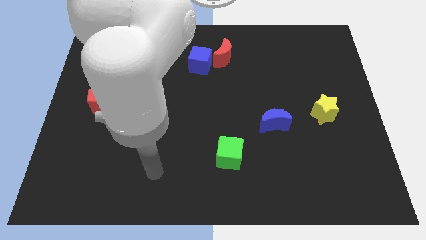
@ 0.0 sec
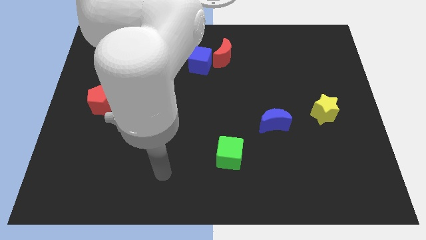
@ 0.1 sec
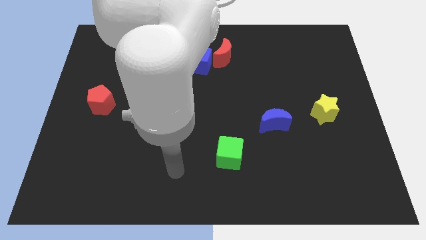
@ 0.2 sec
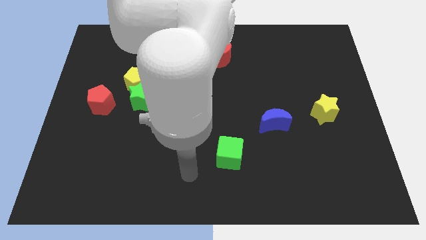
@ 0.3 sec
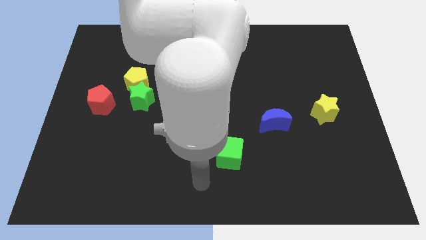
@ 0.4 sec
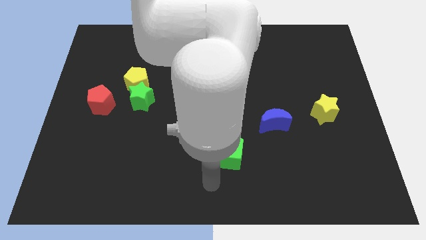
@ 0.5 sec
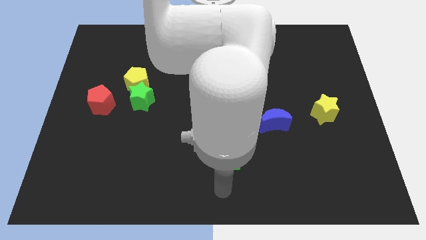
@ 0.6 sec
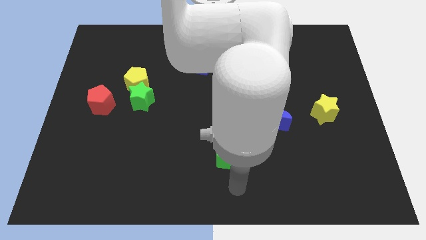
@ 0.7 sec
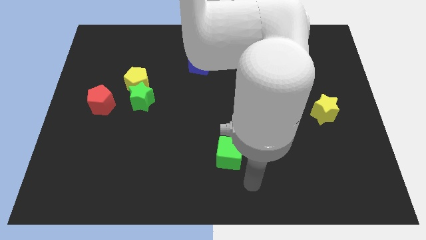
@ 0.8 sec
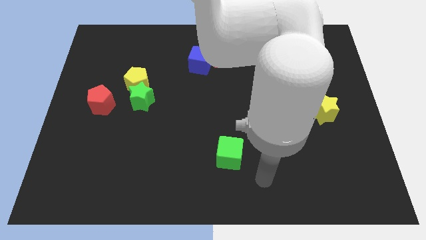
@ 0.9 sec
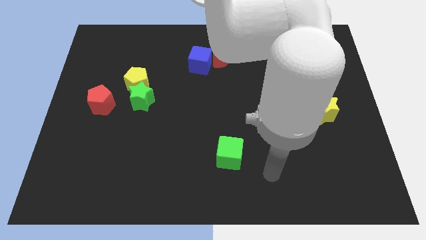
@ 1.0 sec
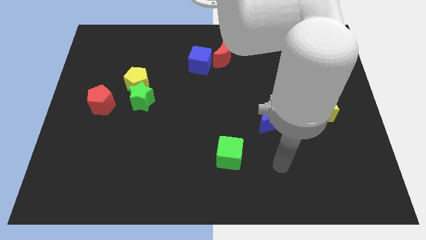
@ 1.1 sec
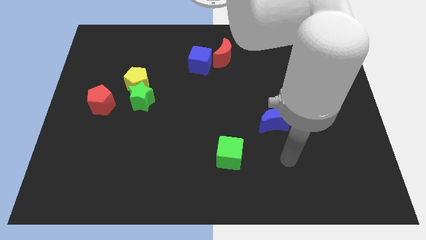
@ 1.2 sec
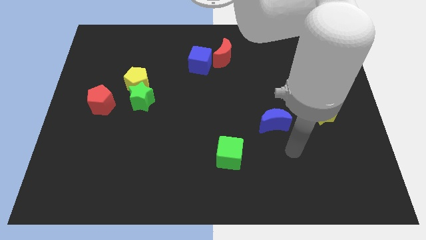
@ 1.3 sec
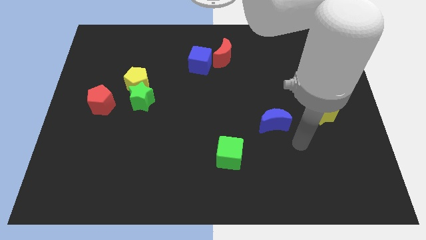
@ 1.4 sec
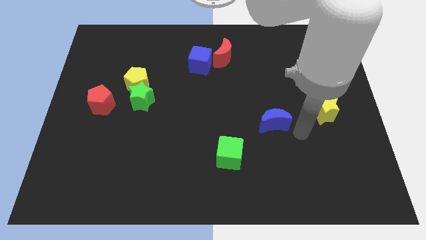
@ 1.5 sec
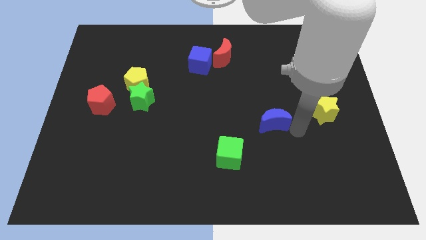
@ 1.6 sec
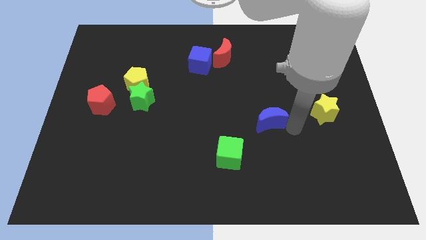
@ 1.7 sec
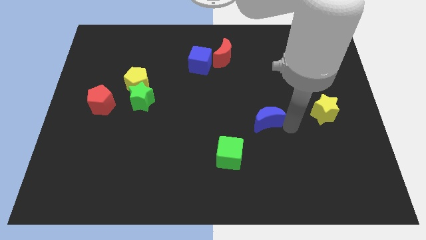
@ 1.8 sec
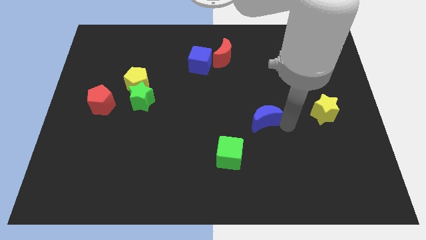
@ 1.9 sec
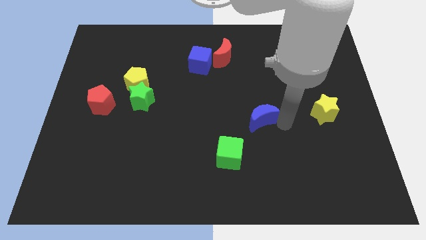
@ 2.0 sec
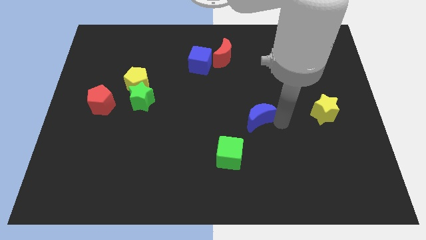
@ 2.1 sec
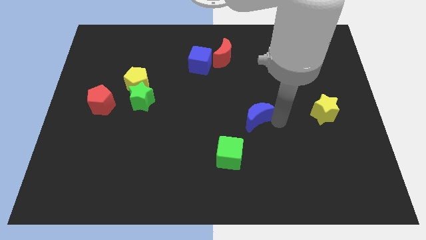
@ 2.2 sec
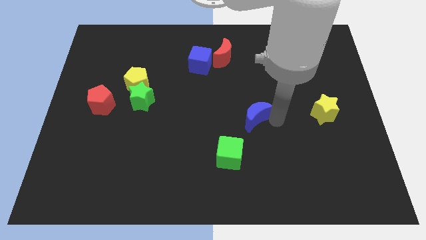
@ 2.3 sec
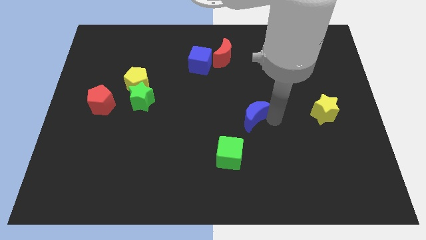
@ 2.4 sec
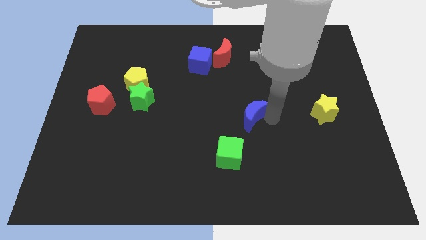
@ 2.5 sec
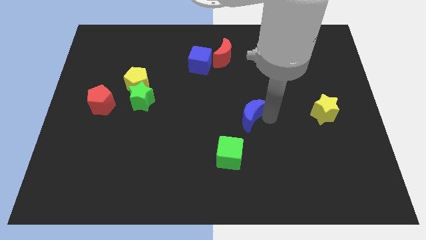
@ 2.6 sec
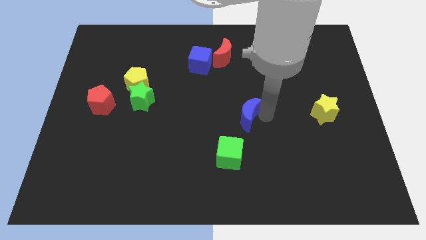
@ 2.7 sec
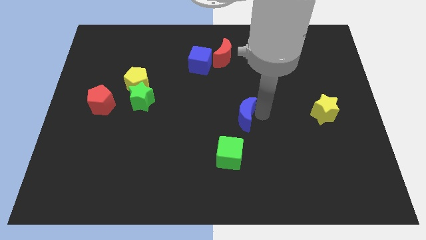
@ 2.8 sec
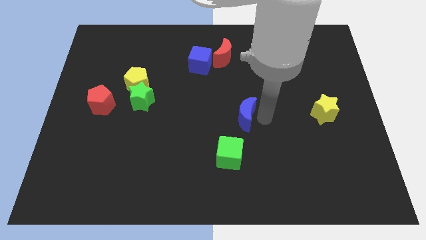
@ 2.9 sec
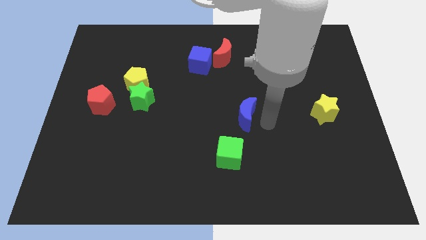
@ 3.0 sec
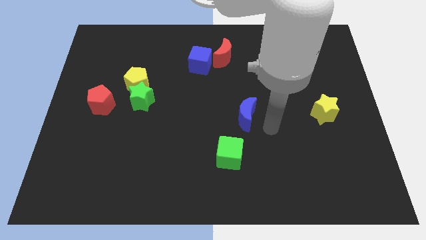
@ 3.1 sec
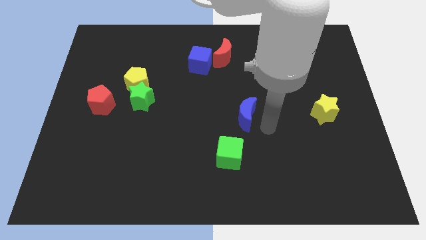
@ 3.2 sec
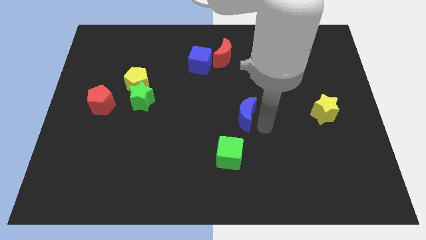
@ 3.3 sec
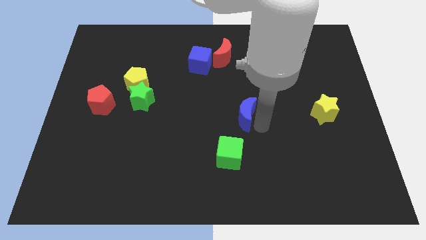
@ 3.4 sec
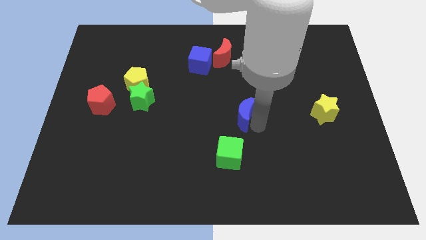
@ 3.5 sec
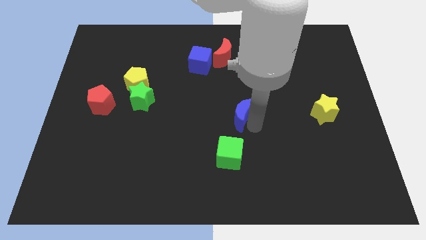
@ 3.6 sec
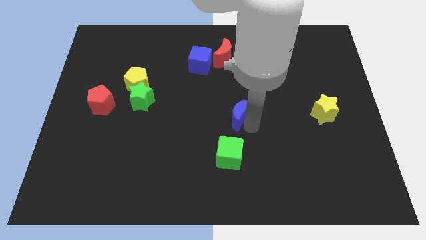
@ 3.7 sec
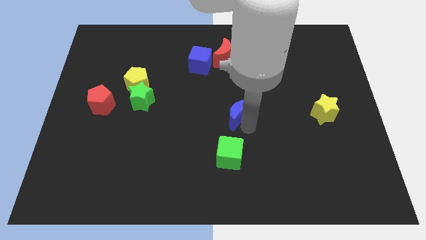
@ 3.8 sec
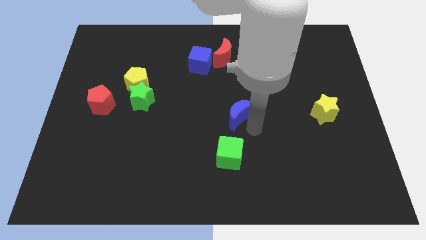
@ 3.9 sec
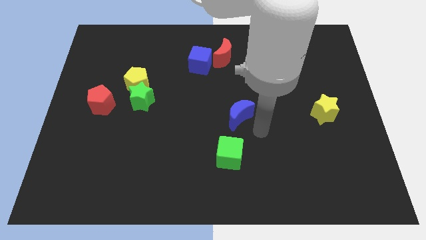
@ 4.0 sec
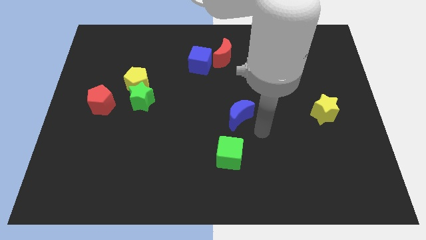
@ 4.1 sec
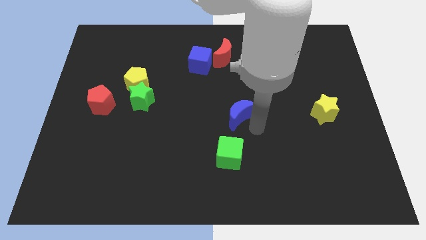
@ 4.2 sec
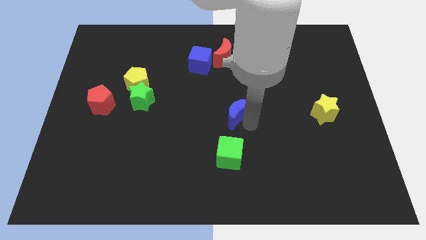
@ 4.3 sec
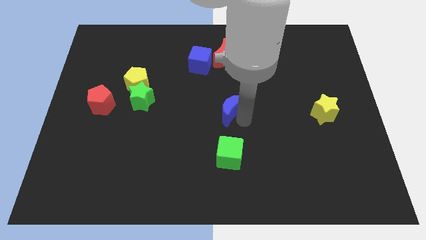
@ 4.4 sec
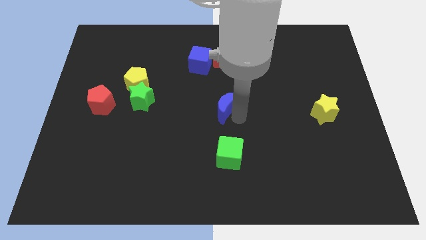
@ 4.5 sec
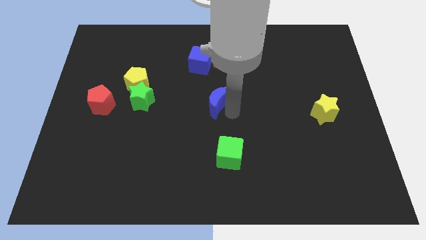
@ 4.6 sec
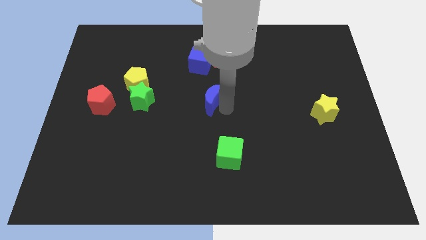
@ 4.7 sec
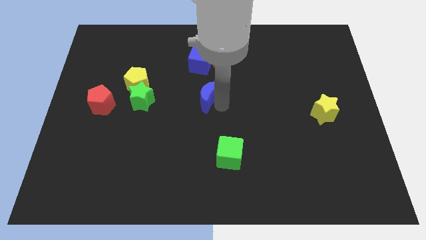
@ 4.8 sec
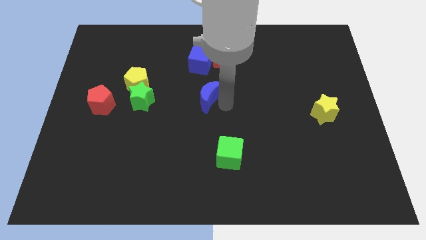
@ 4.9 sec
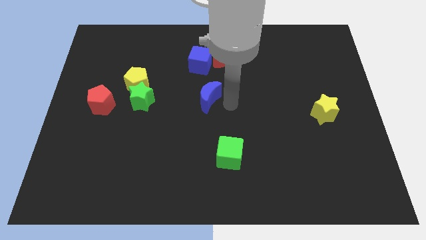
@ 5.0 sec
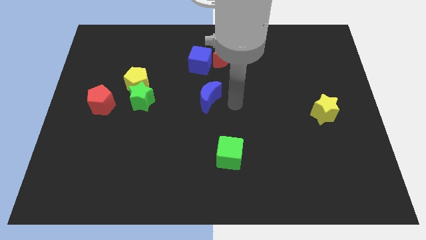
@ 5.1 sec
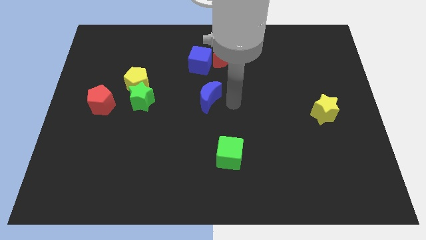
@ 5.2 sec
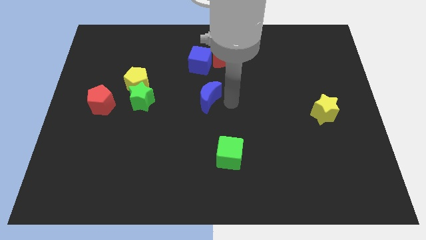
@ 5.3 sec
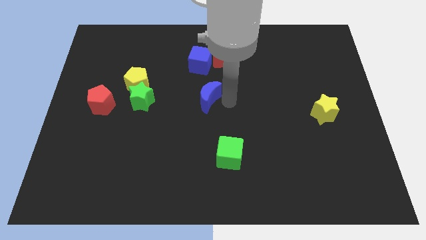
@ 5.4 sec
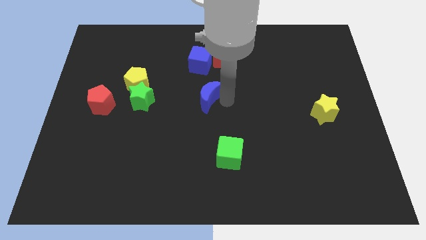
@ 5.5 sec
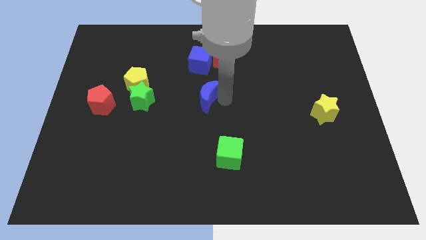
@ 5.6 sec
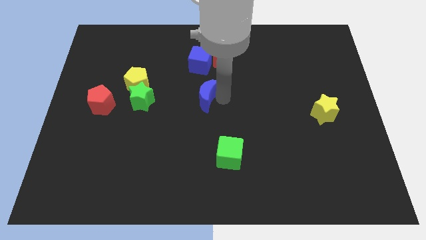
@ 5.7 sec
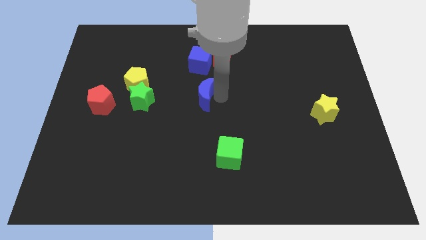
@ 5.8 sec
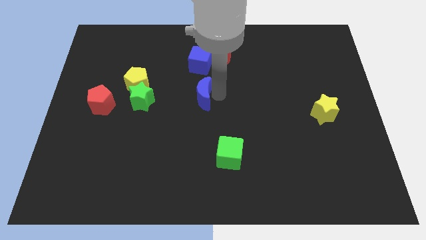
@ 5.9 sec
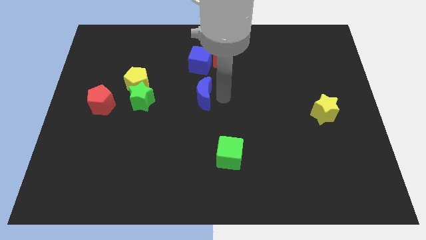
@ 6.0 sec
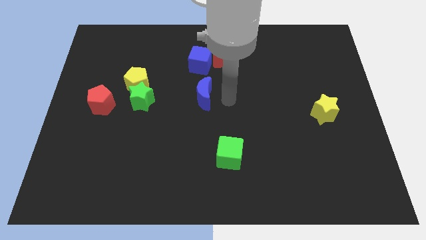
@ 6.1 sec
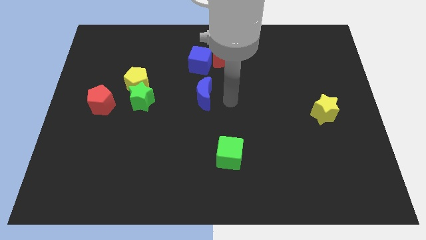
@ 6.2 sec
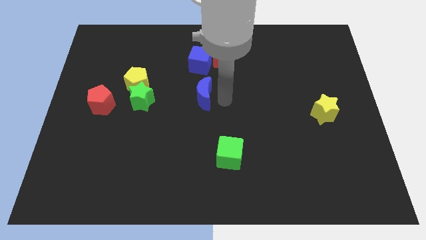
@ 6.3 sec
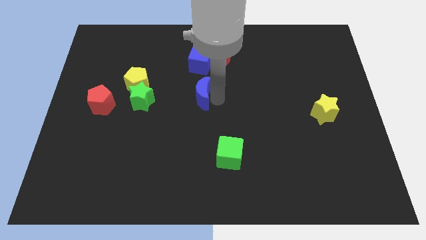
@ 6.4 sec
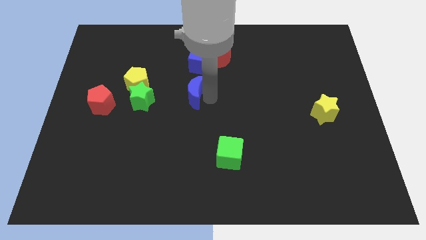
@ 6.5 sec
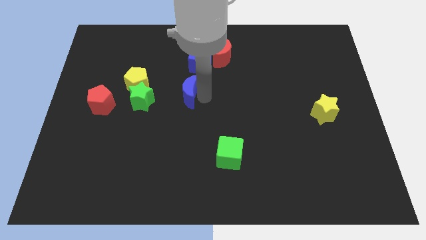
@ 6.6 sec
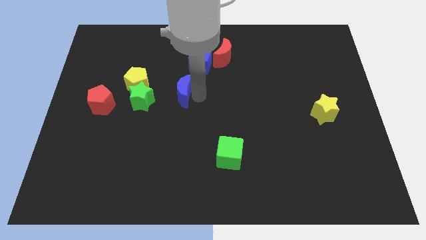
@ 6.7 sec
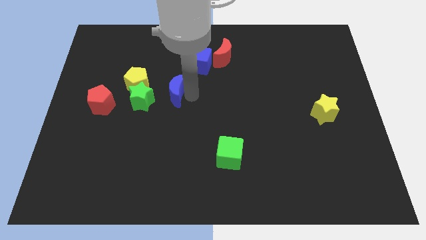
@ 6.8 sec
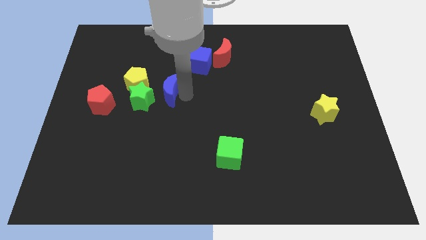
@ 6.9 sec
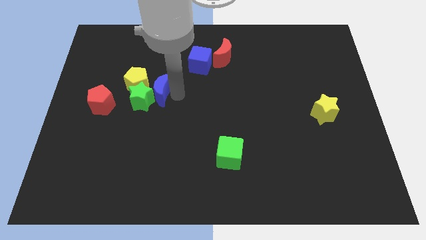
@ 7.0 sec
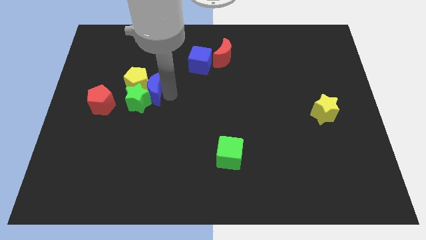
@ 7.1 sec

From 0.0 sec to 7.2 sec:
slide the blue moon towards the yellow pentagon
